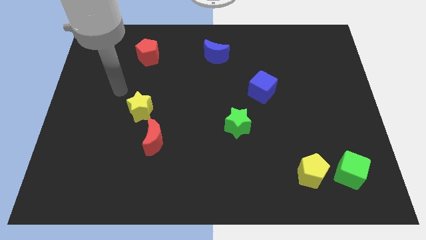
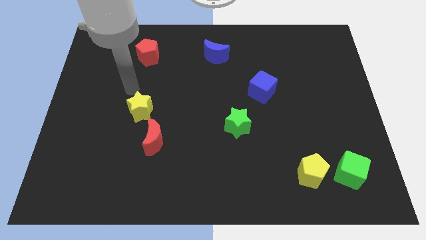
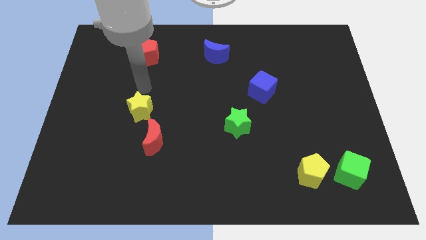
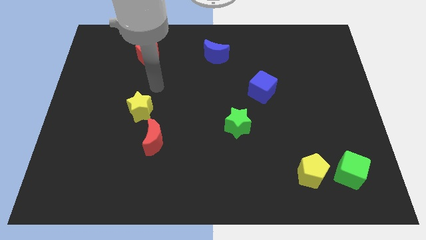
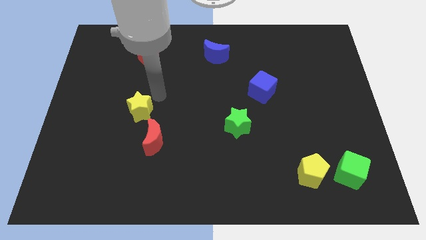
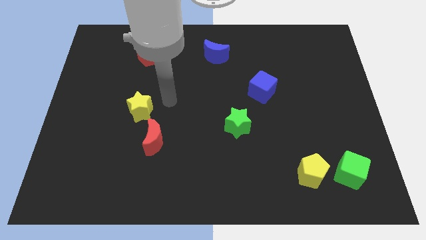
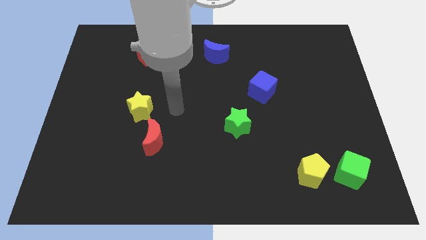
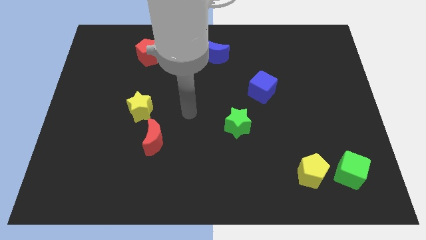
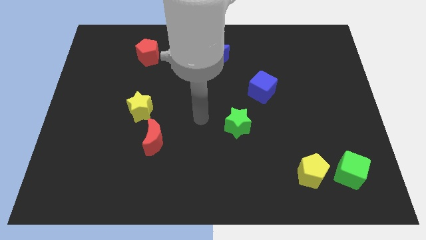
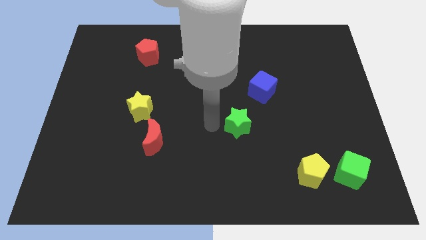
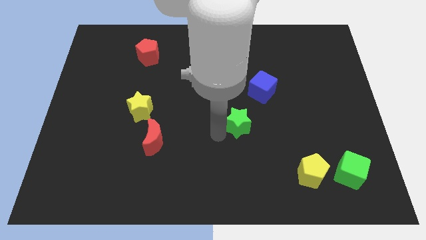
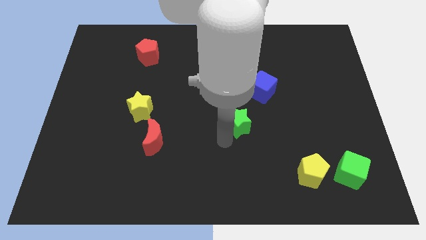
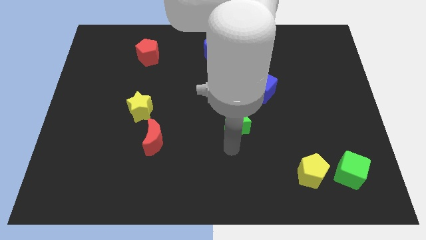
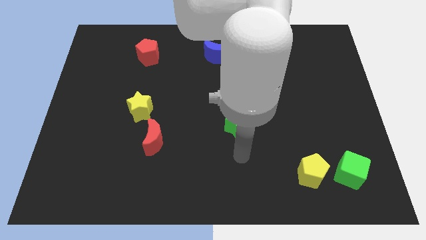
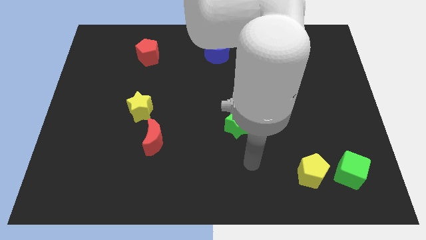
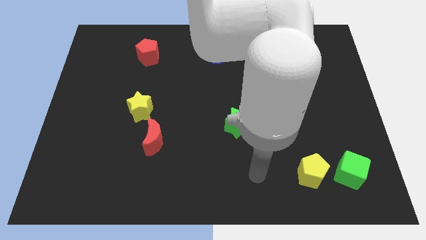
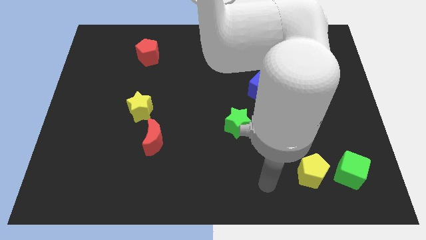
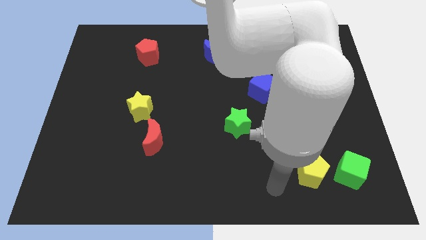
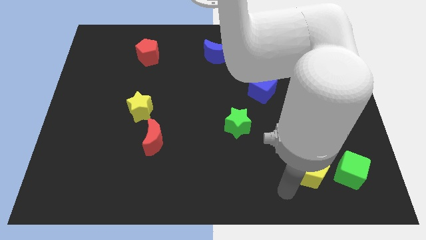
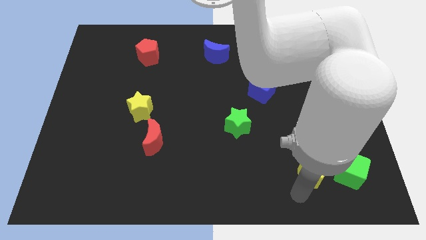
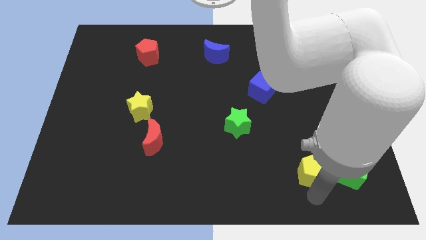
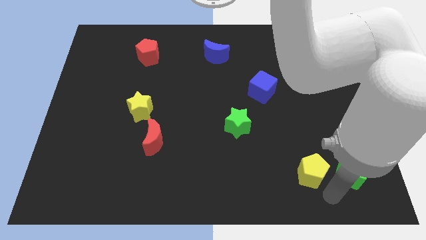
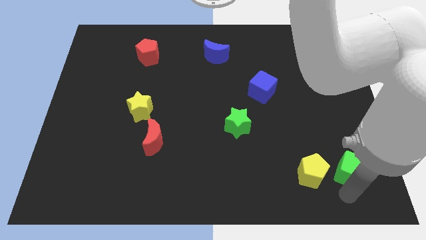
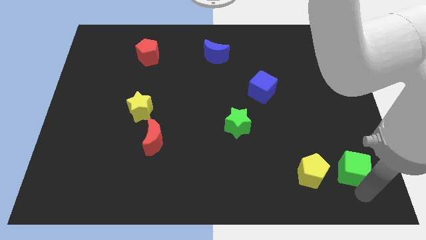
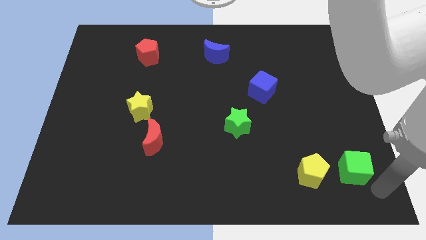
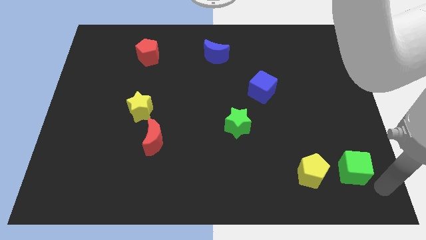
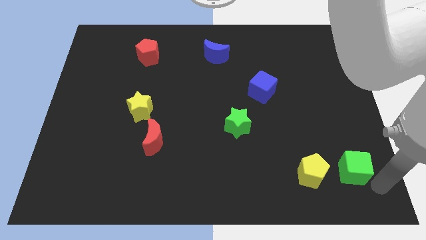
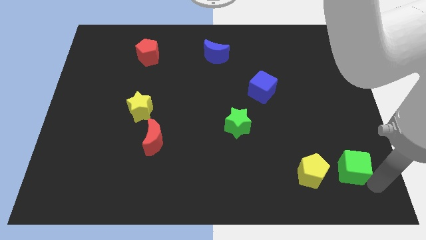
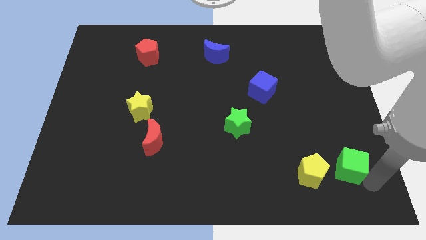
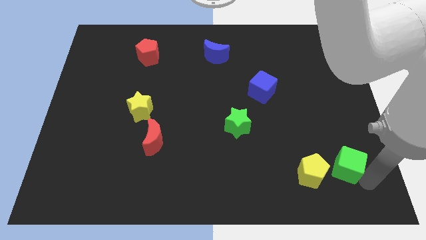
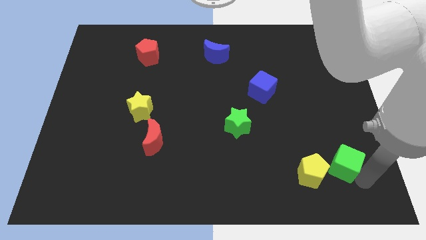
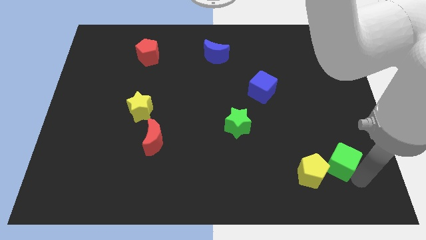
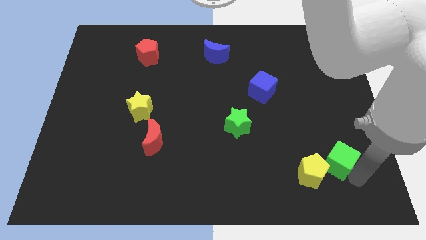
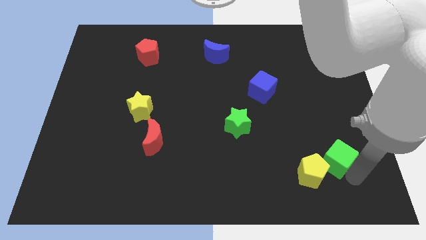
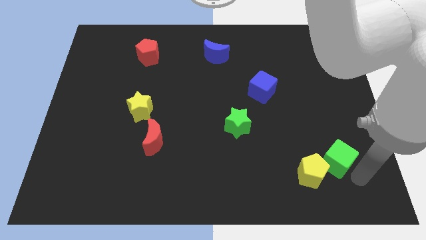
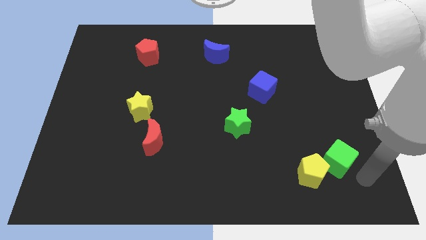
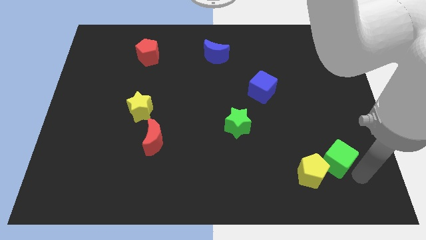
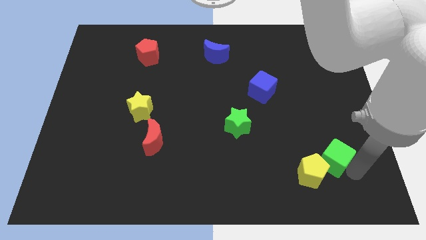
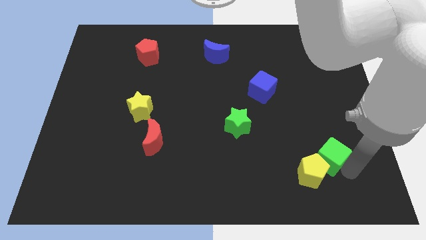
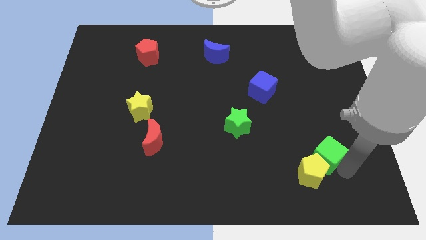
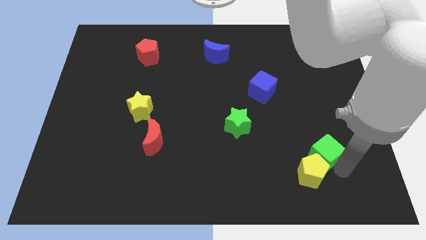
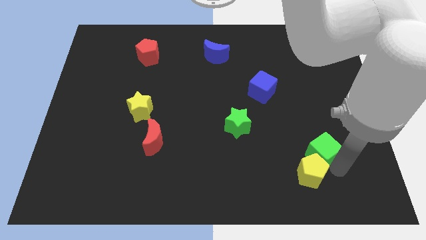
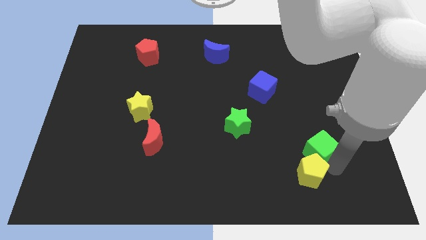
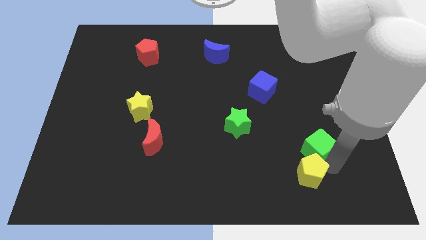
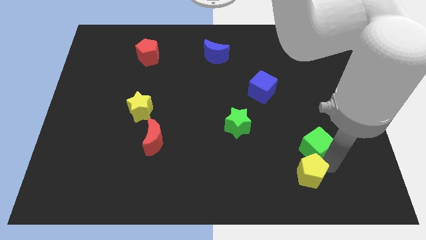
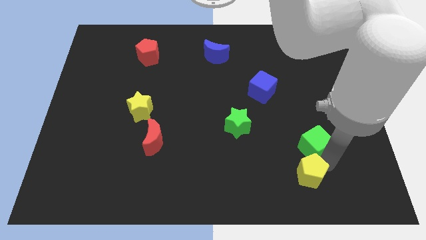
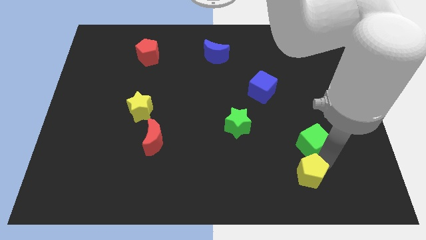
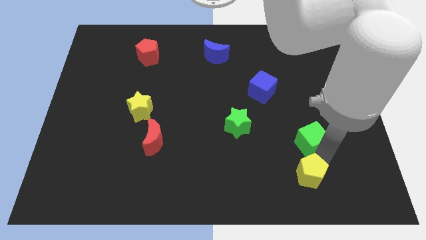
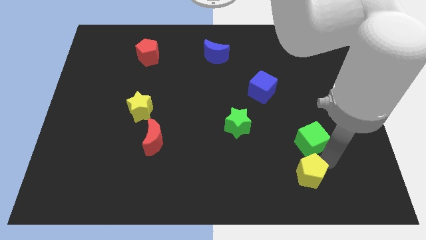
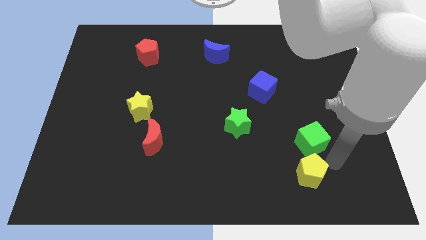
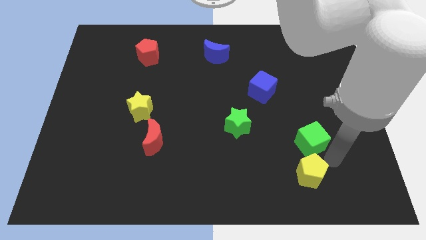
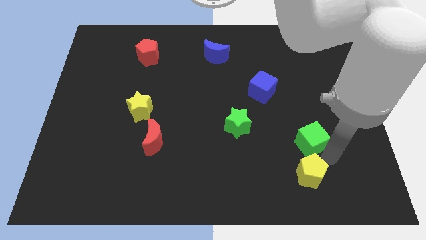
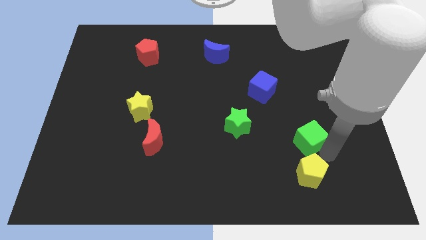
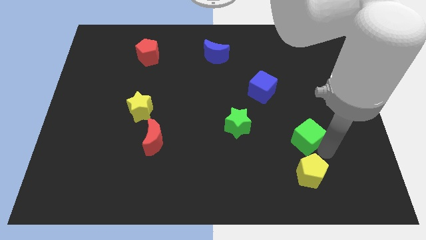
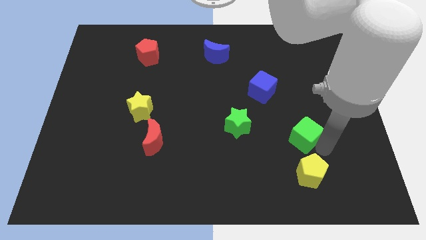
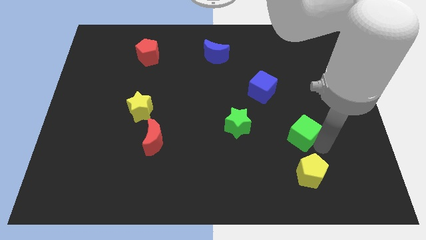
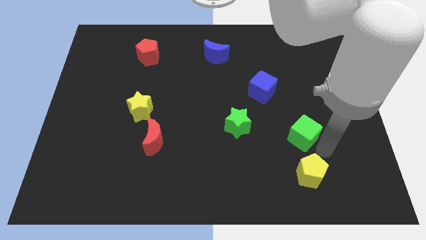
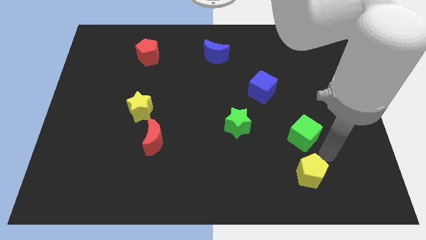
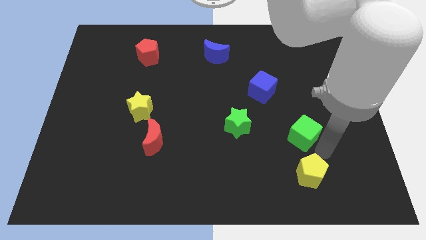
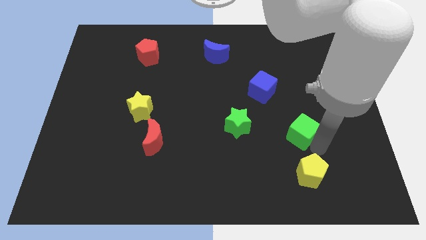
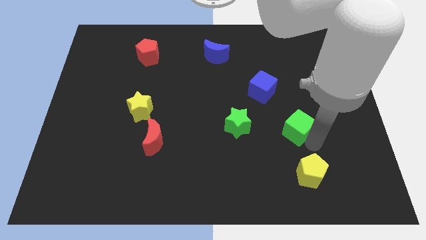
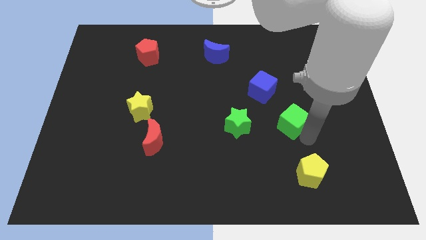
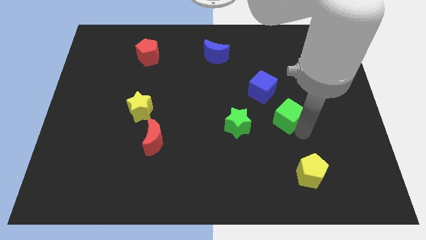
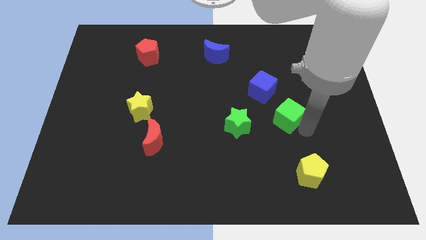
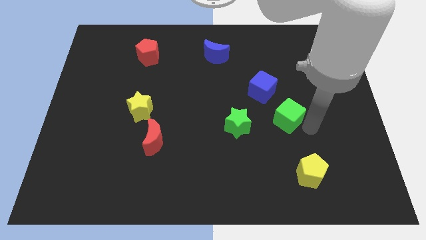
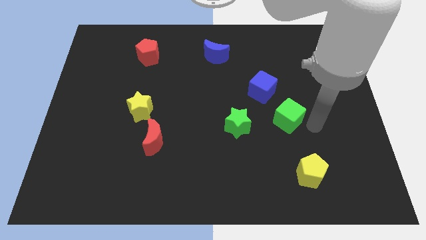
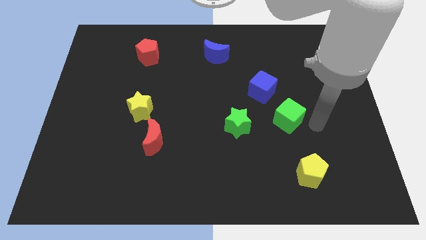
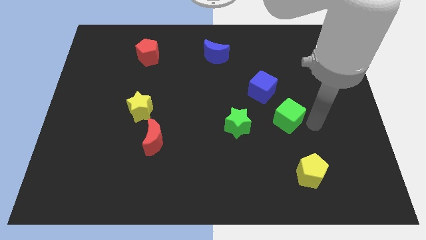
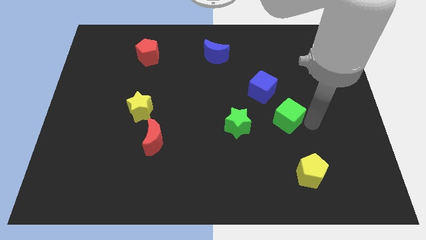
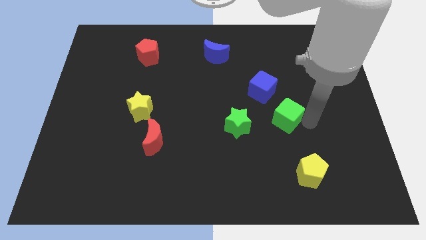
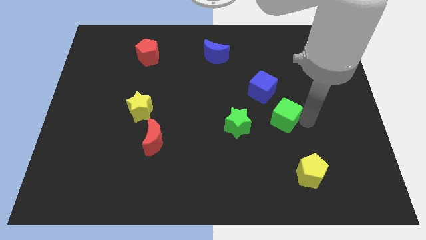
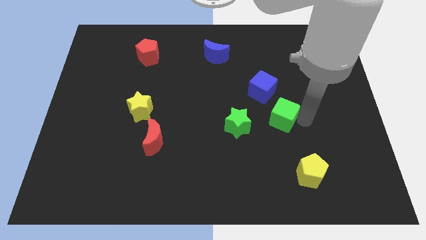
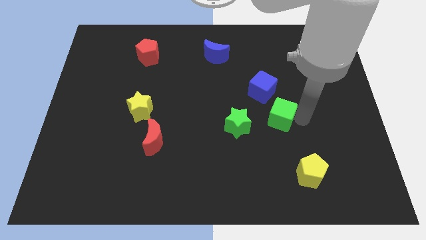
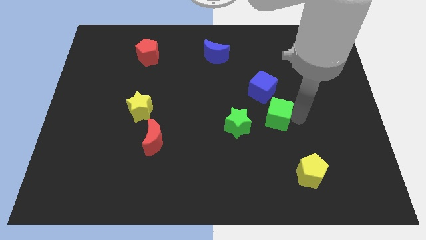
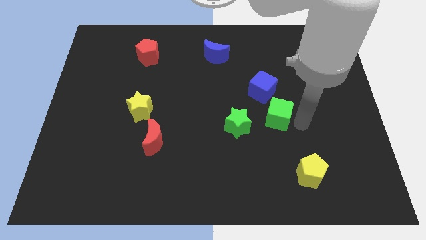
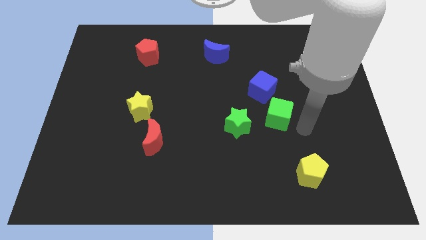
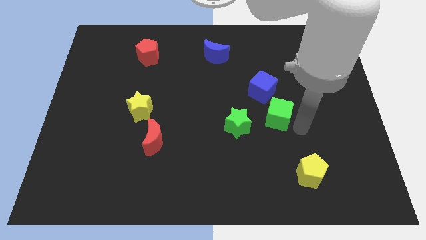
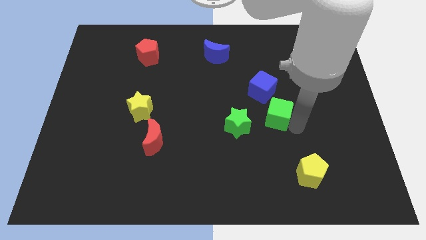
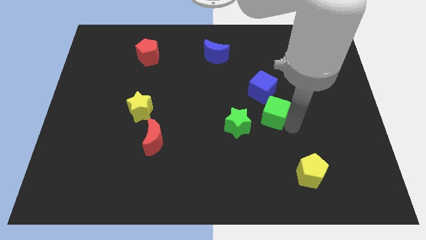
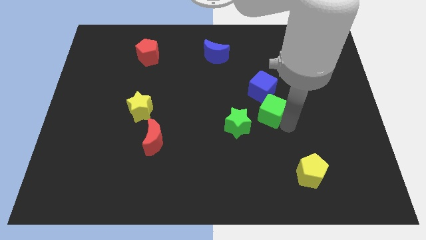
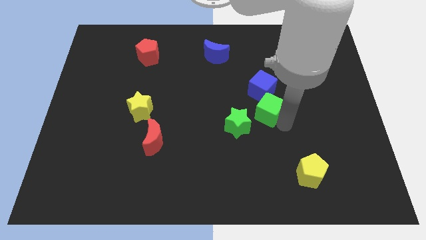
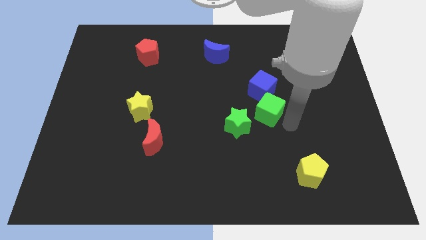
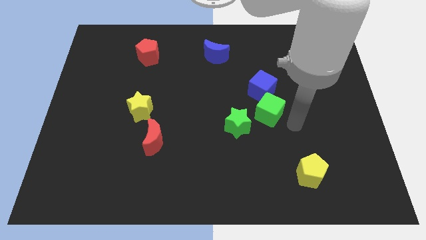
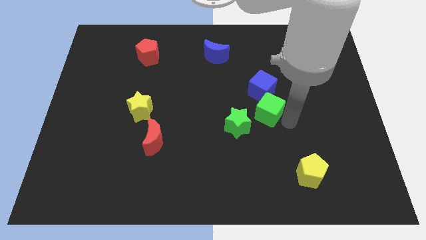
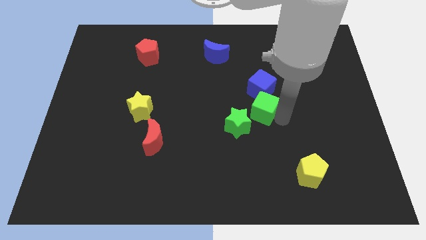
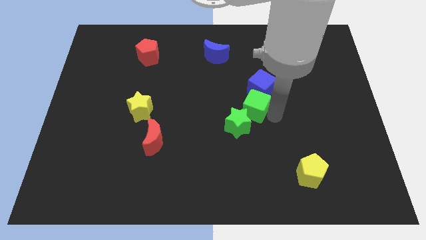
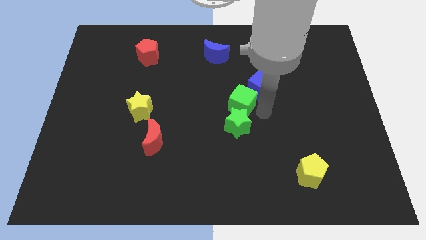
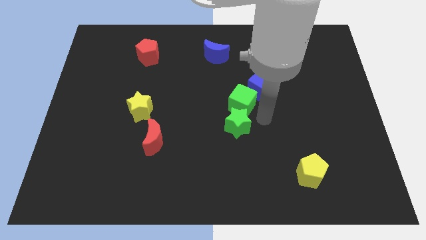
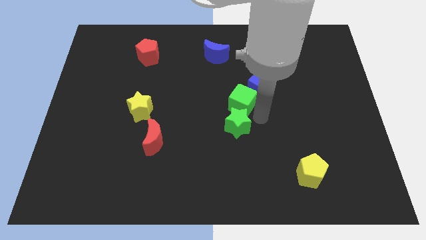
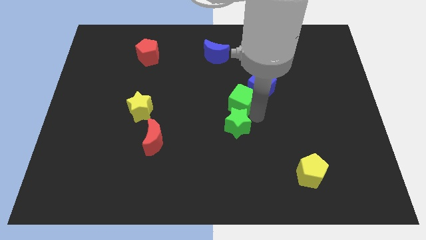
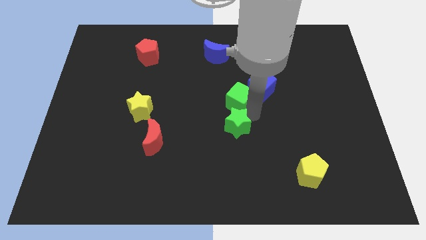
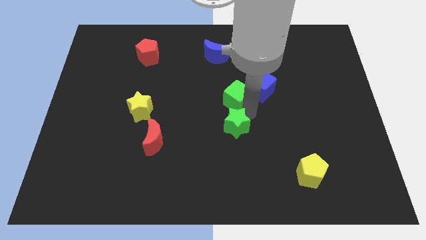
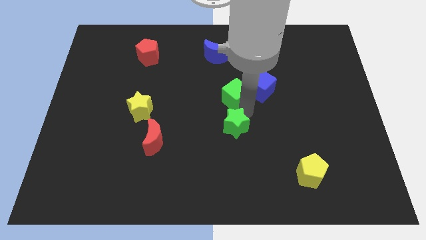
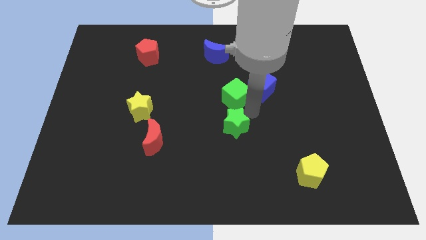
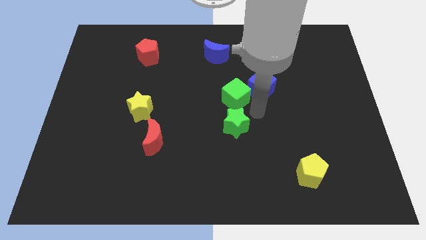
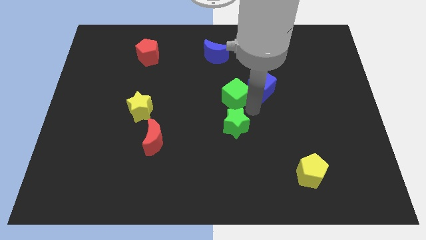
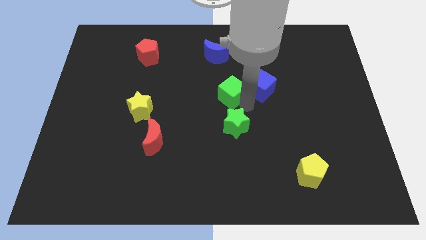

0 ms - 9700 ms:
push the green cube to the bottom side of the blue moon
